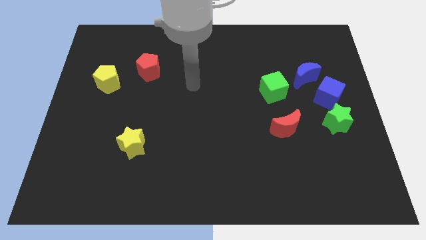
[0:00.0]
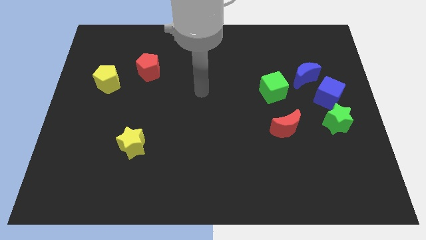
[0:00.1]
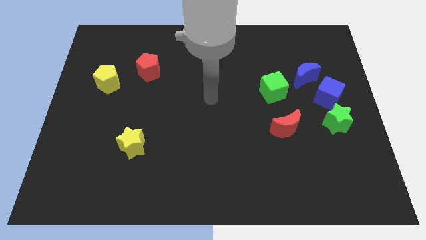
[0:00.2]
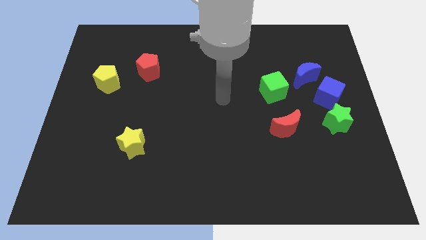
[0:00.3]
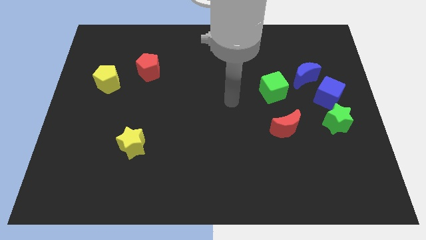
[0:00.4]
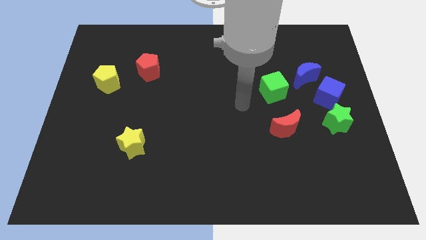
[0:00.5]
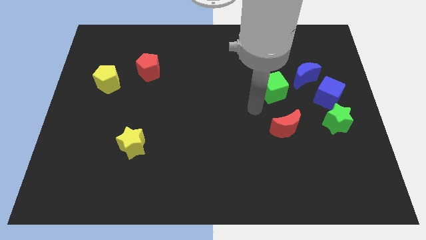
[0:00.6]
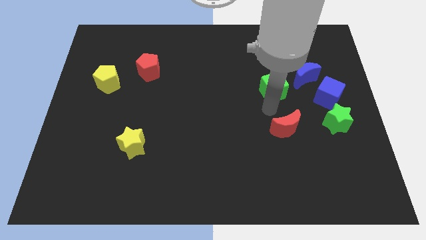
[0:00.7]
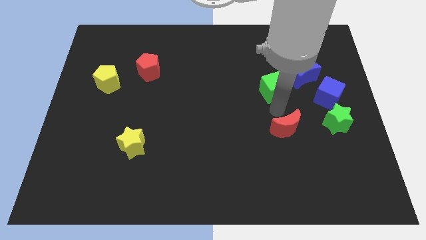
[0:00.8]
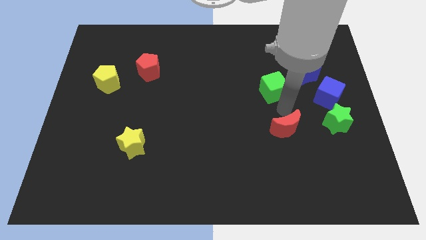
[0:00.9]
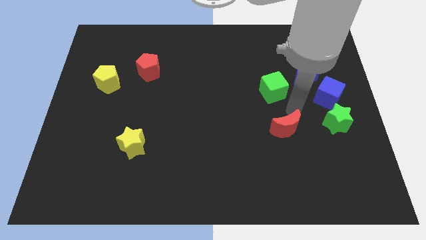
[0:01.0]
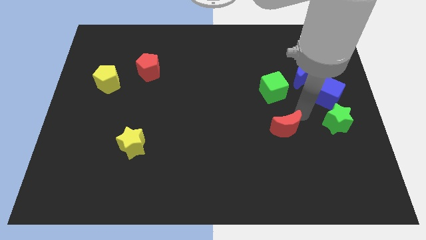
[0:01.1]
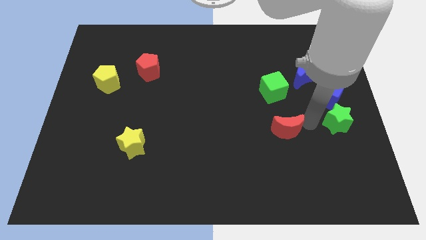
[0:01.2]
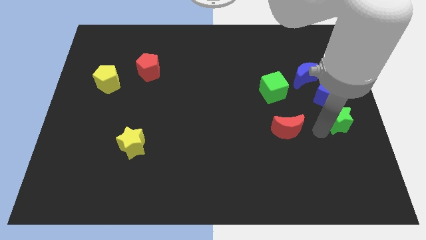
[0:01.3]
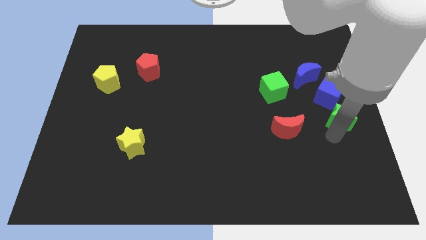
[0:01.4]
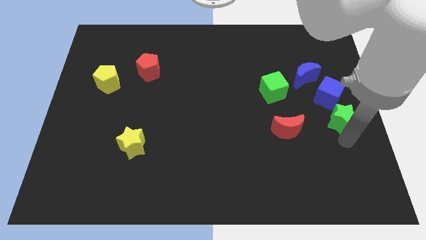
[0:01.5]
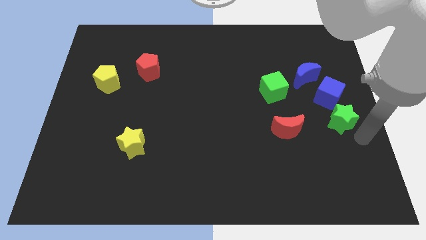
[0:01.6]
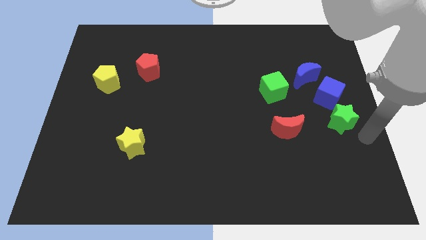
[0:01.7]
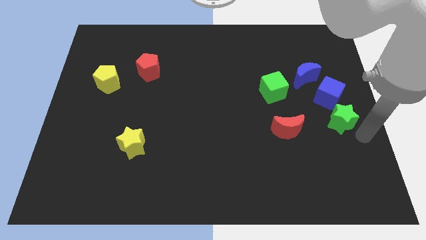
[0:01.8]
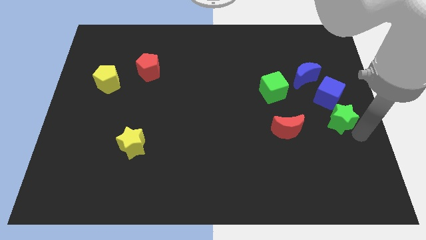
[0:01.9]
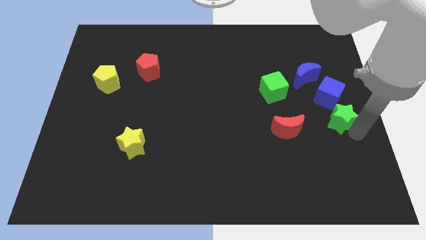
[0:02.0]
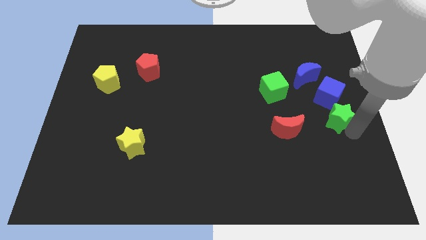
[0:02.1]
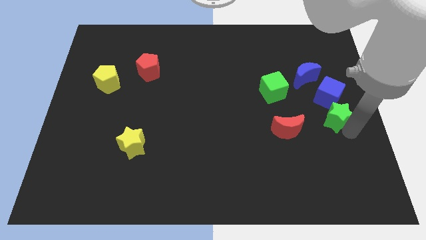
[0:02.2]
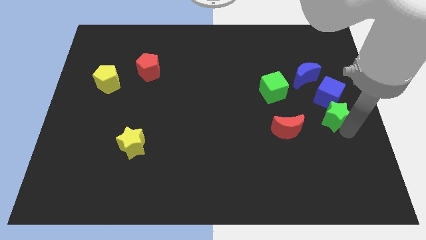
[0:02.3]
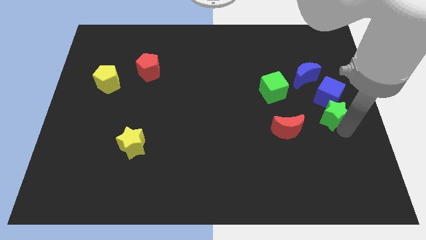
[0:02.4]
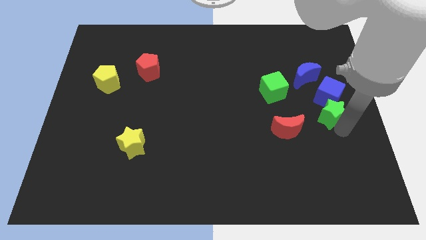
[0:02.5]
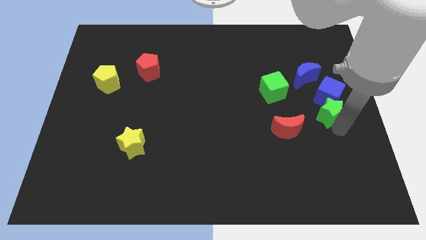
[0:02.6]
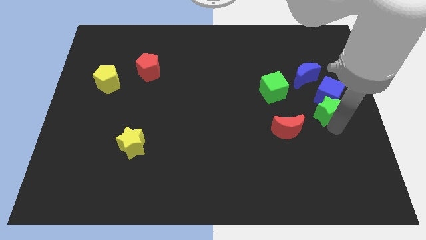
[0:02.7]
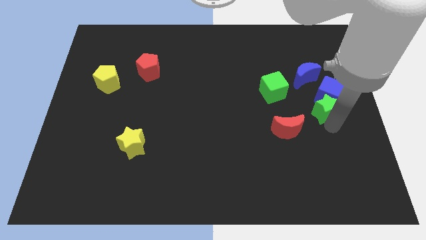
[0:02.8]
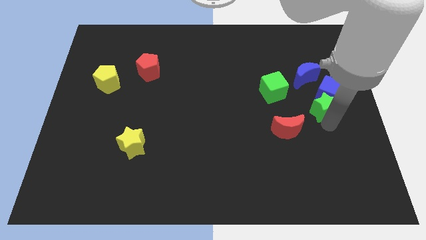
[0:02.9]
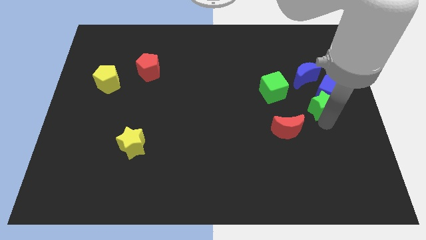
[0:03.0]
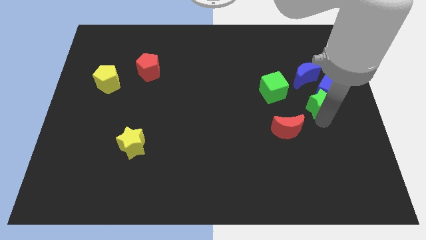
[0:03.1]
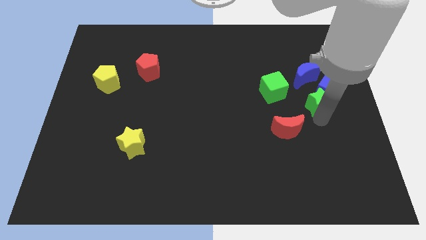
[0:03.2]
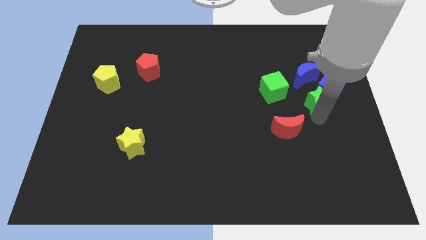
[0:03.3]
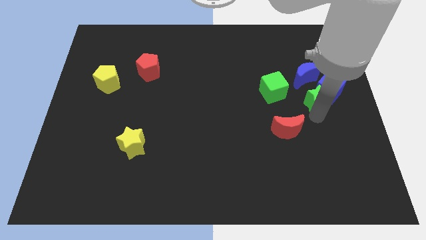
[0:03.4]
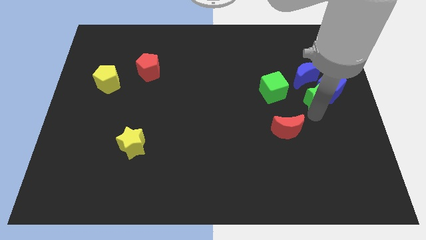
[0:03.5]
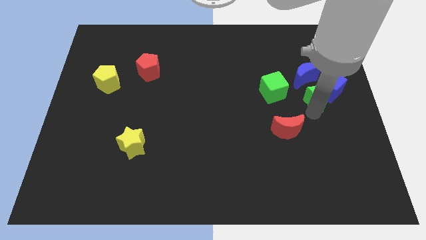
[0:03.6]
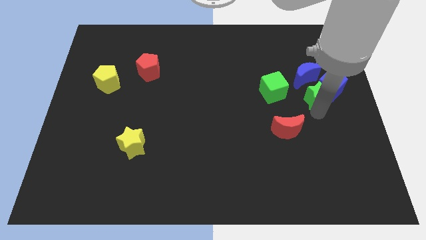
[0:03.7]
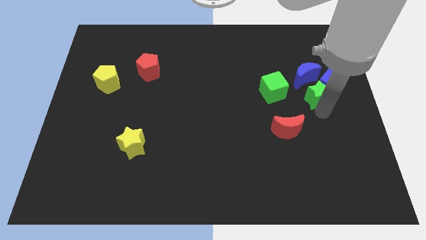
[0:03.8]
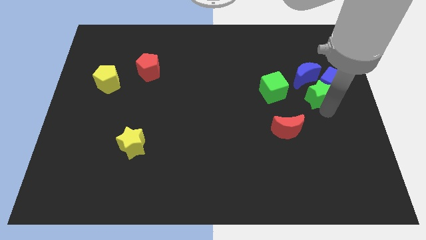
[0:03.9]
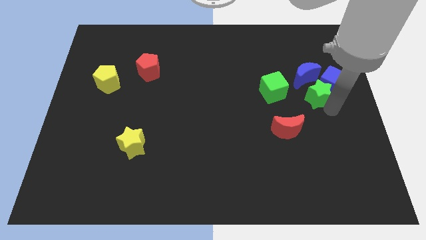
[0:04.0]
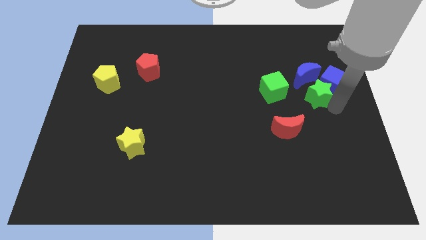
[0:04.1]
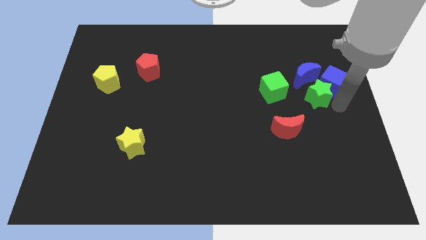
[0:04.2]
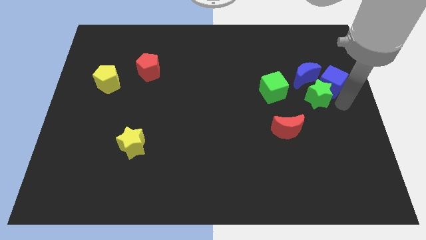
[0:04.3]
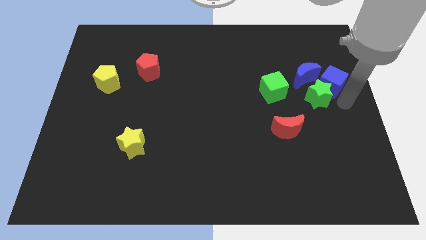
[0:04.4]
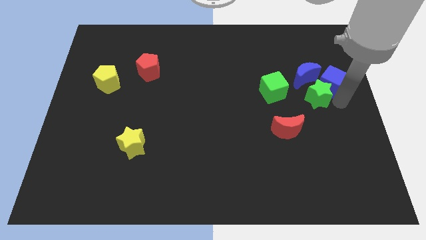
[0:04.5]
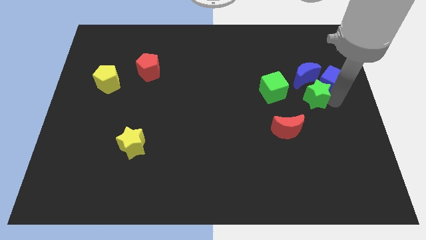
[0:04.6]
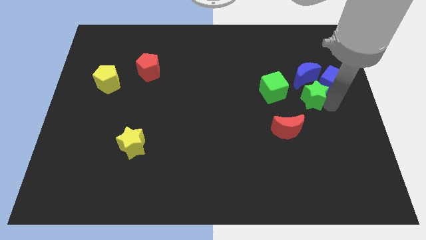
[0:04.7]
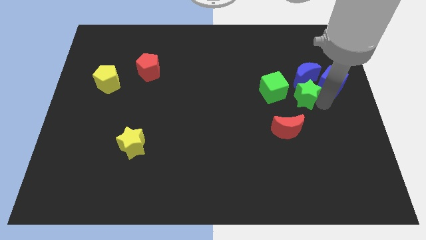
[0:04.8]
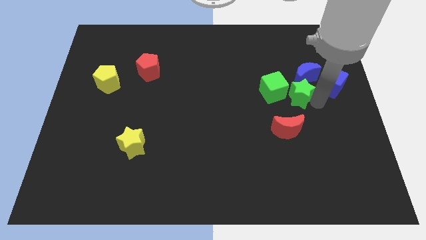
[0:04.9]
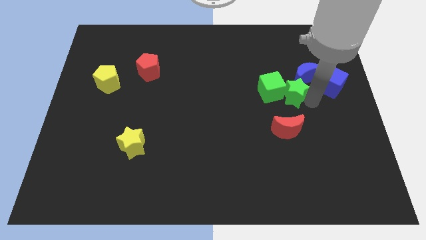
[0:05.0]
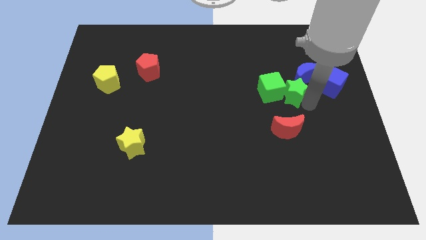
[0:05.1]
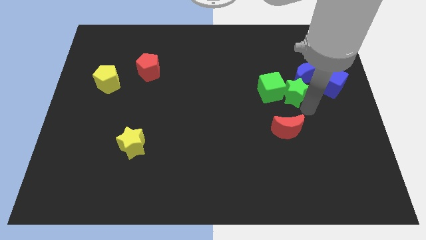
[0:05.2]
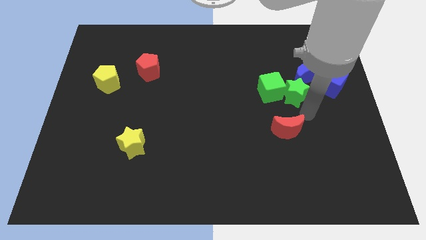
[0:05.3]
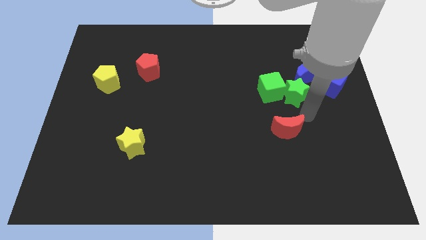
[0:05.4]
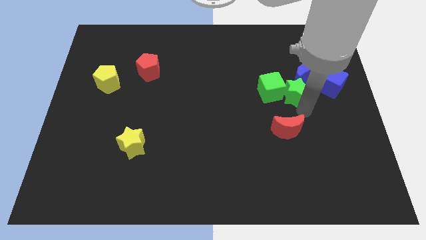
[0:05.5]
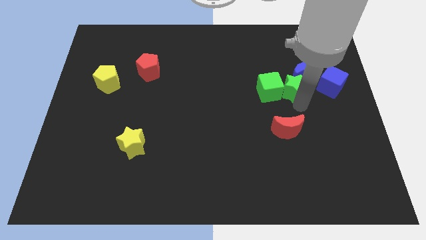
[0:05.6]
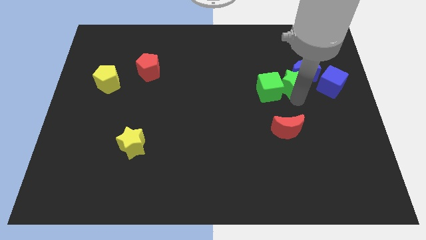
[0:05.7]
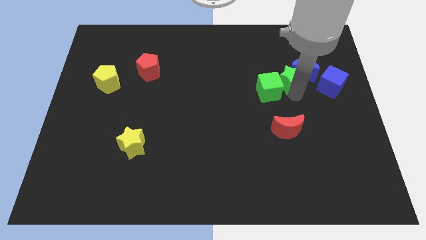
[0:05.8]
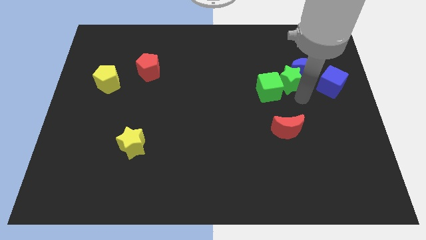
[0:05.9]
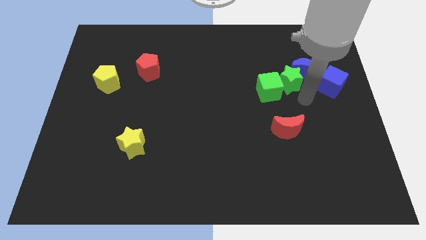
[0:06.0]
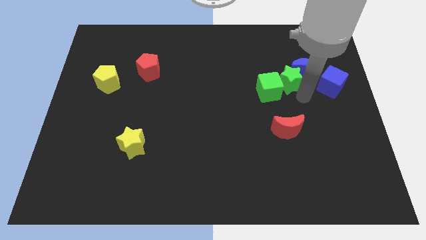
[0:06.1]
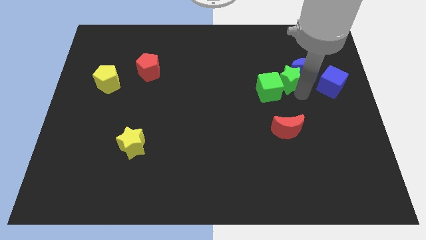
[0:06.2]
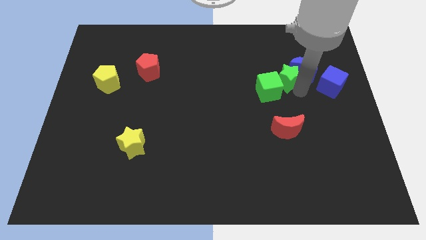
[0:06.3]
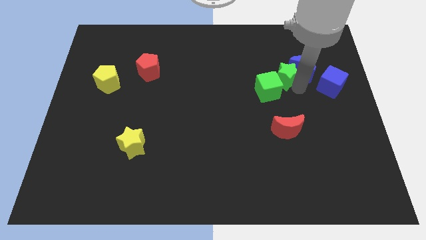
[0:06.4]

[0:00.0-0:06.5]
push the green star to the top side of the green cube
